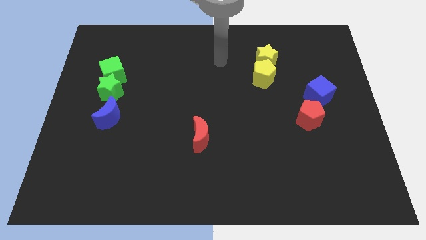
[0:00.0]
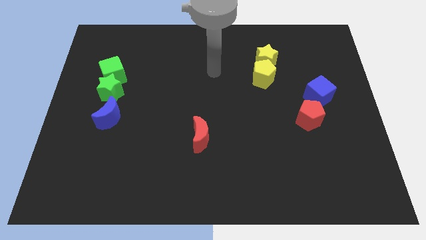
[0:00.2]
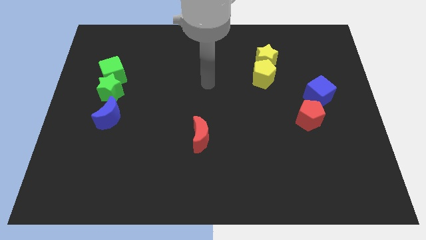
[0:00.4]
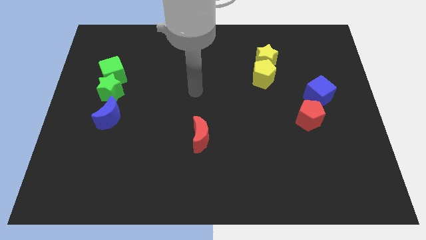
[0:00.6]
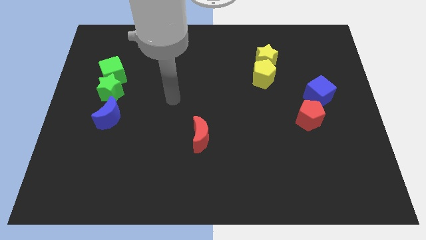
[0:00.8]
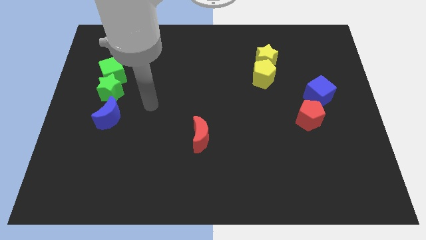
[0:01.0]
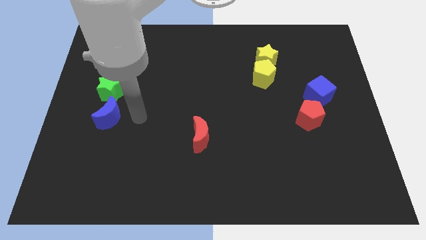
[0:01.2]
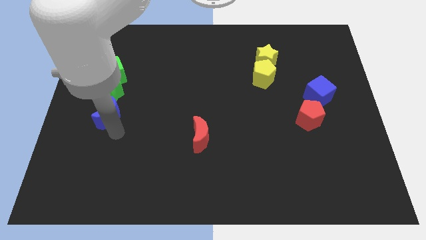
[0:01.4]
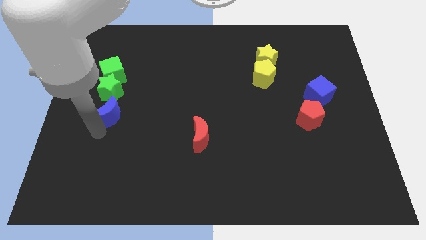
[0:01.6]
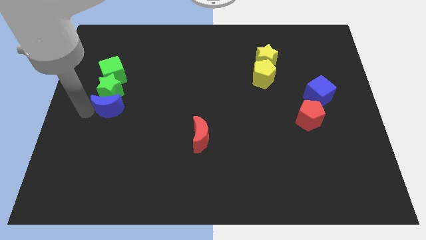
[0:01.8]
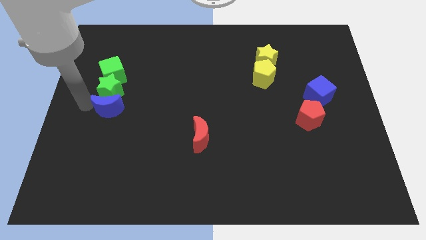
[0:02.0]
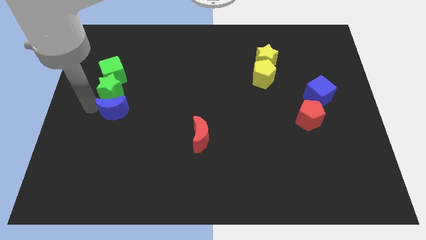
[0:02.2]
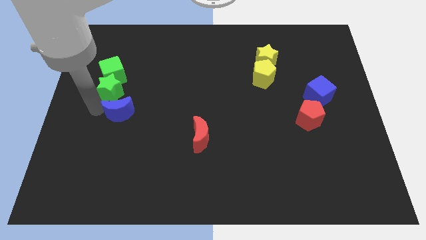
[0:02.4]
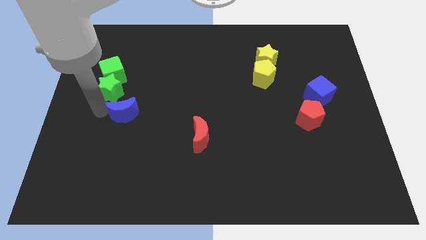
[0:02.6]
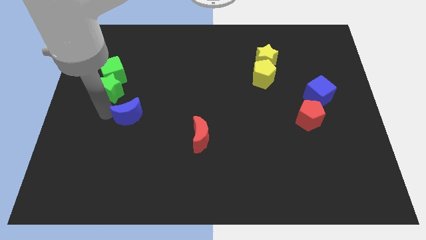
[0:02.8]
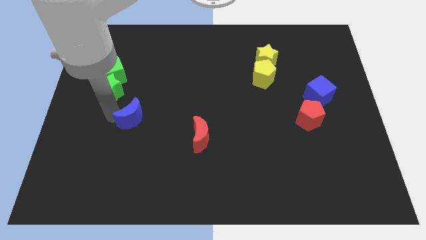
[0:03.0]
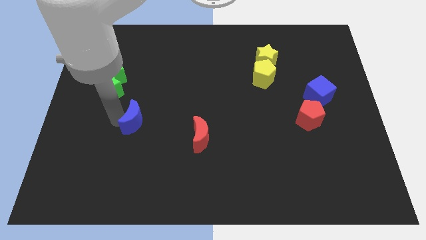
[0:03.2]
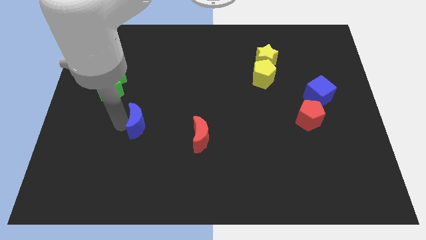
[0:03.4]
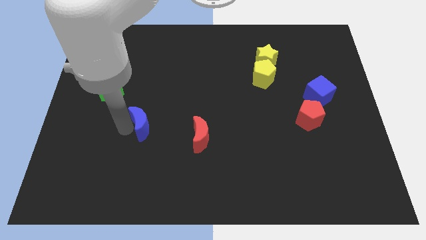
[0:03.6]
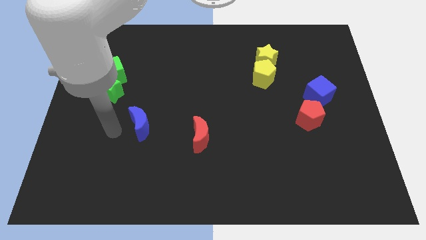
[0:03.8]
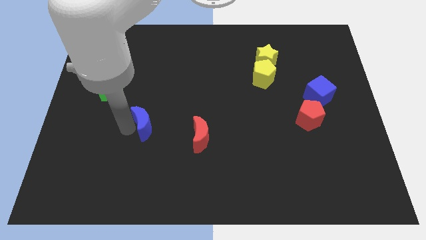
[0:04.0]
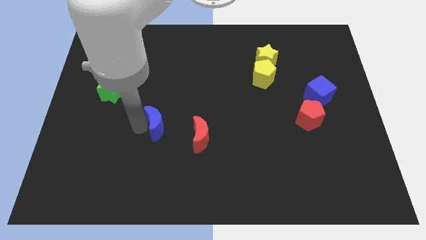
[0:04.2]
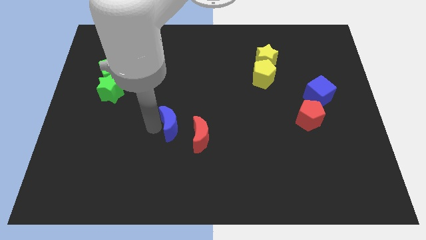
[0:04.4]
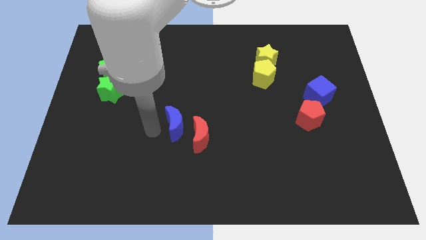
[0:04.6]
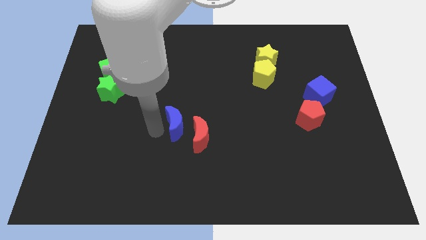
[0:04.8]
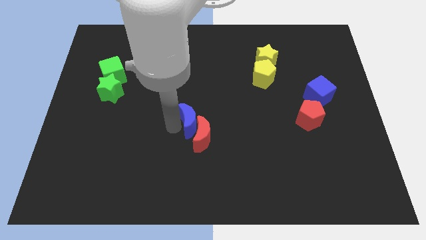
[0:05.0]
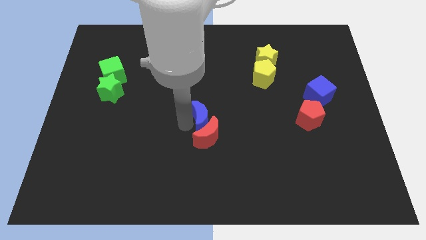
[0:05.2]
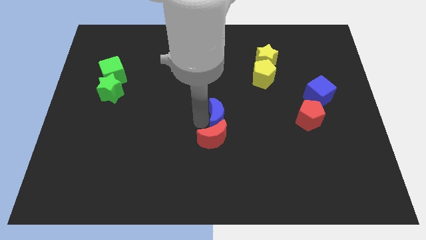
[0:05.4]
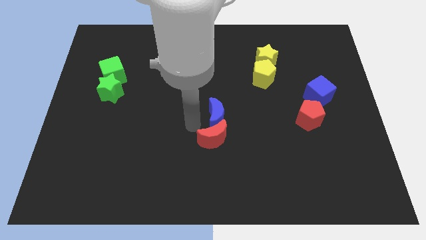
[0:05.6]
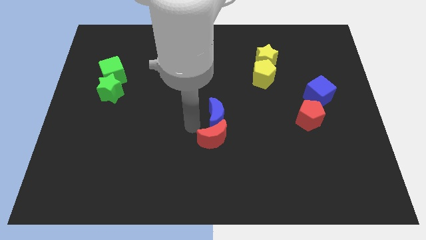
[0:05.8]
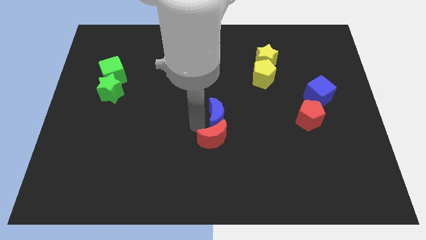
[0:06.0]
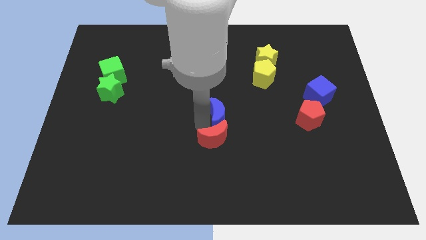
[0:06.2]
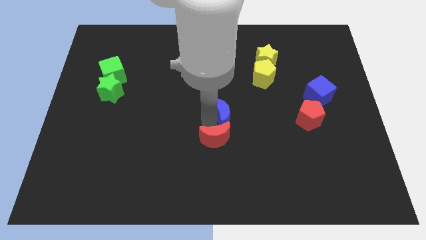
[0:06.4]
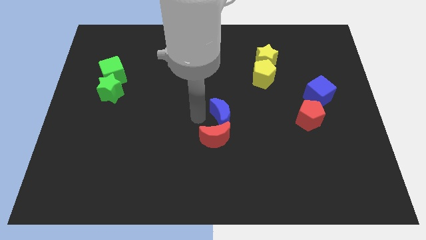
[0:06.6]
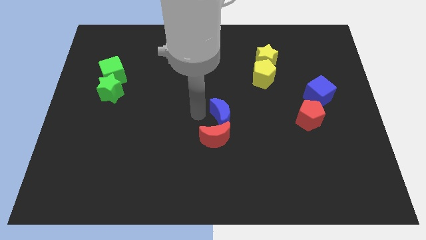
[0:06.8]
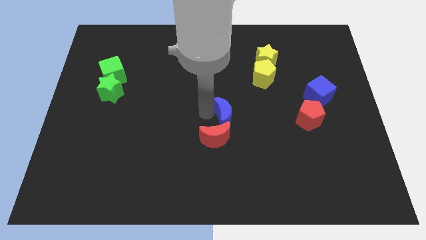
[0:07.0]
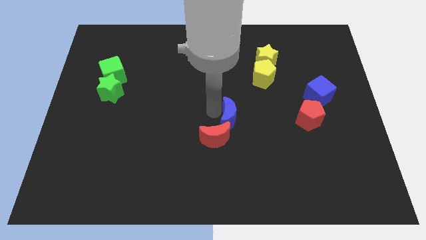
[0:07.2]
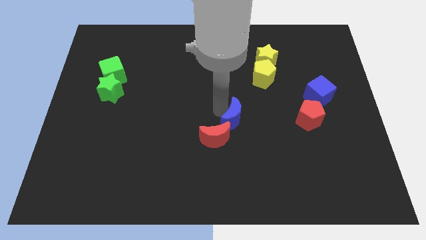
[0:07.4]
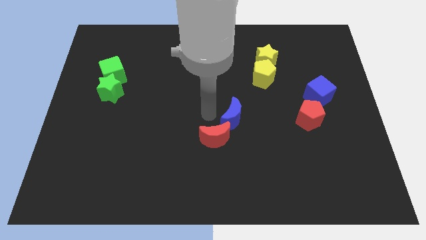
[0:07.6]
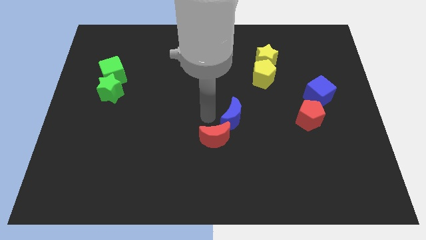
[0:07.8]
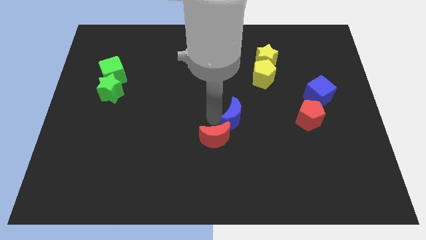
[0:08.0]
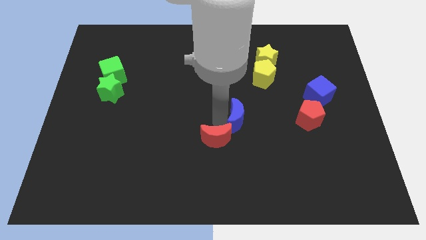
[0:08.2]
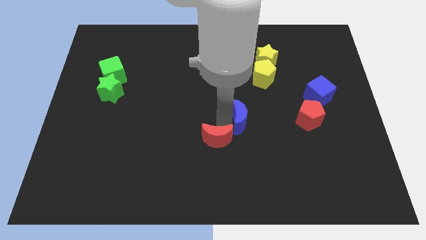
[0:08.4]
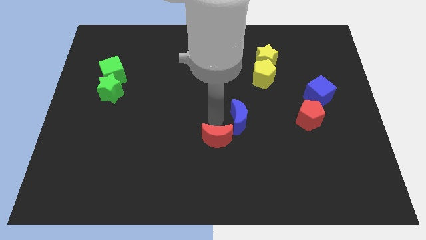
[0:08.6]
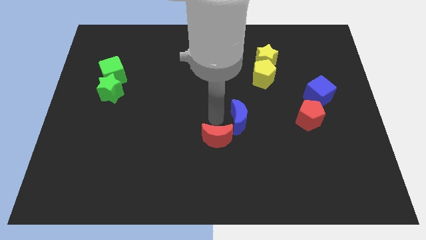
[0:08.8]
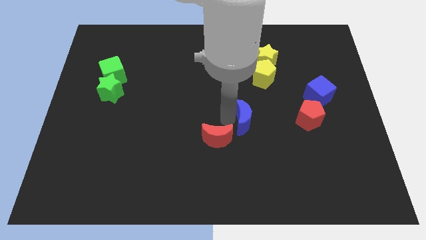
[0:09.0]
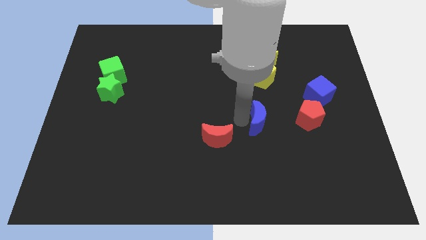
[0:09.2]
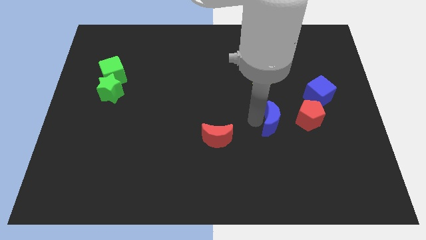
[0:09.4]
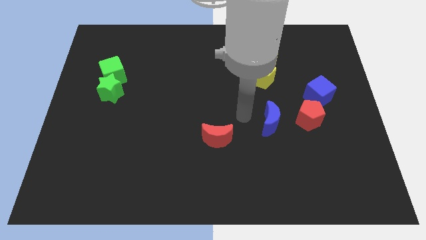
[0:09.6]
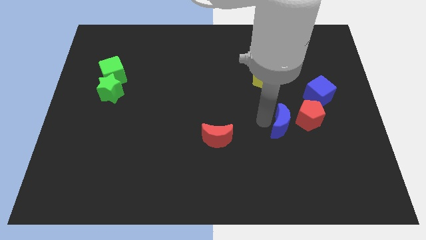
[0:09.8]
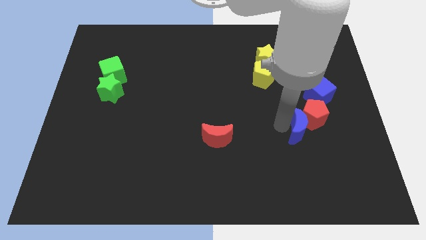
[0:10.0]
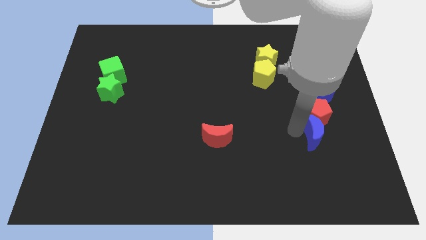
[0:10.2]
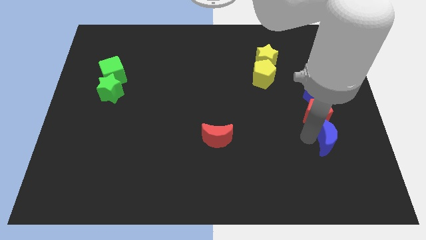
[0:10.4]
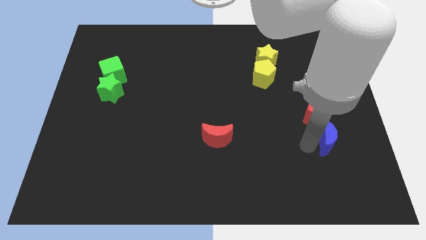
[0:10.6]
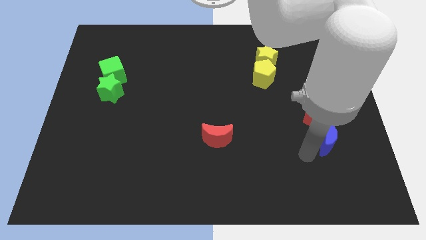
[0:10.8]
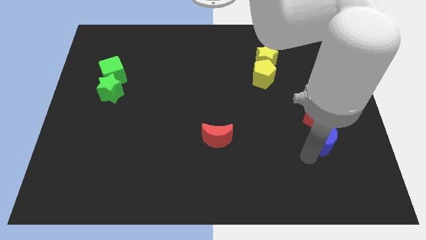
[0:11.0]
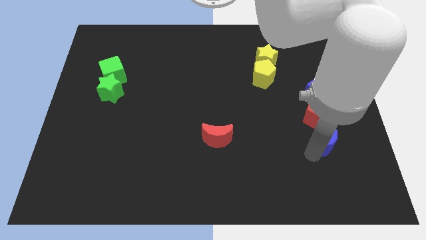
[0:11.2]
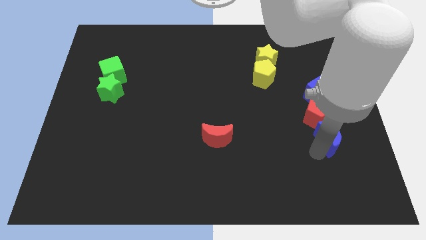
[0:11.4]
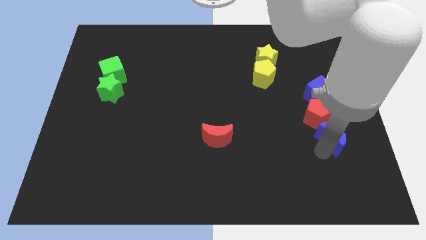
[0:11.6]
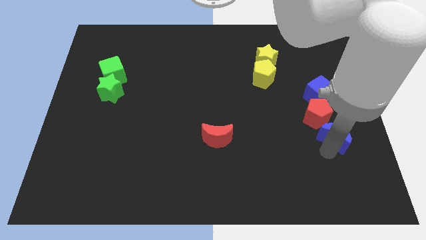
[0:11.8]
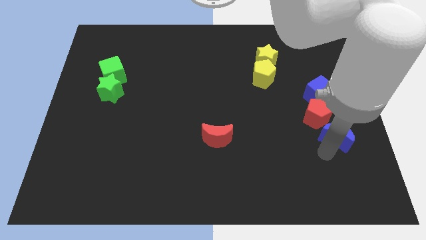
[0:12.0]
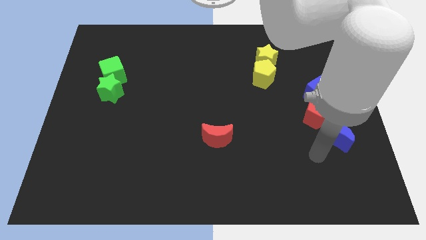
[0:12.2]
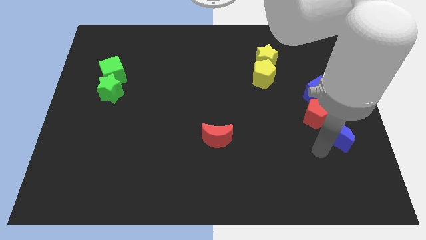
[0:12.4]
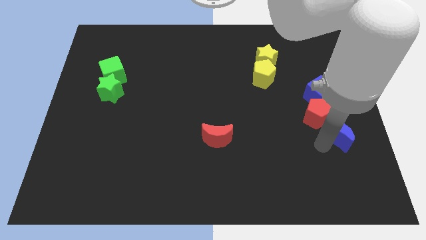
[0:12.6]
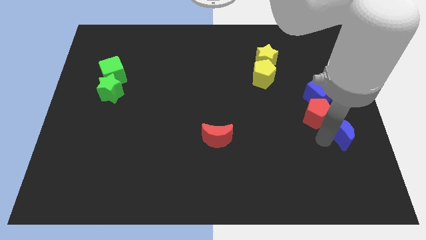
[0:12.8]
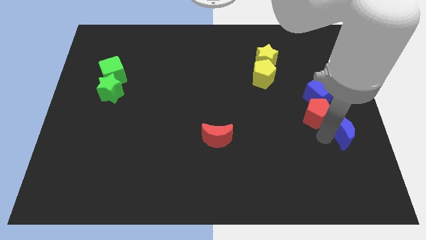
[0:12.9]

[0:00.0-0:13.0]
put the blue moon to the right side
